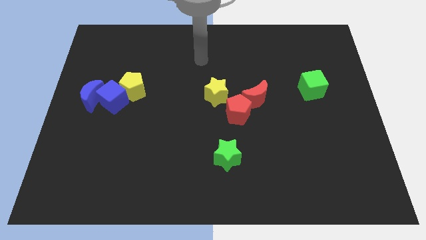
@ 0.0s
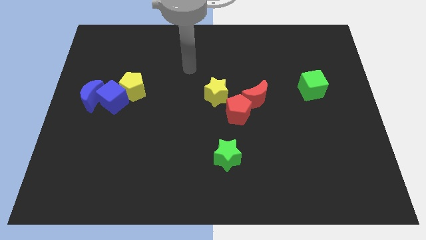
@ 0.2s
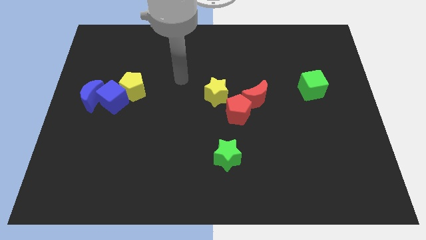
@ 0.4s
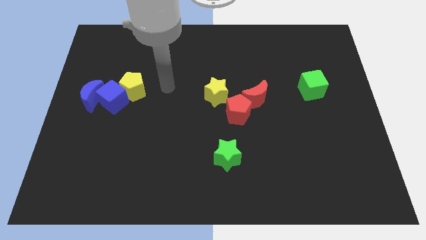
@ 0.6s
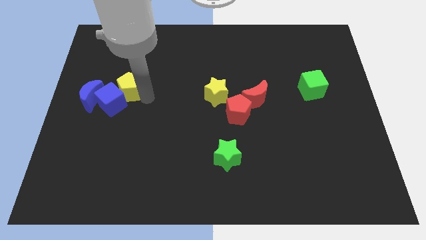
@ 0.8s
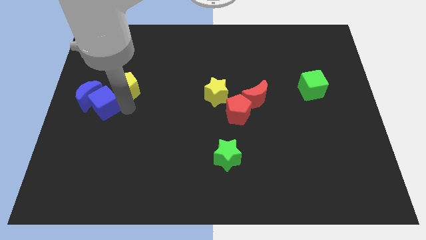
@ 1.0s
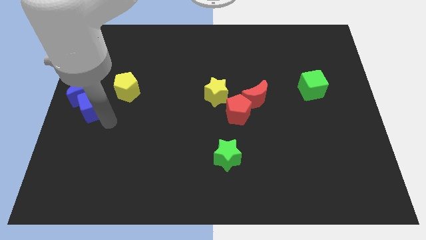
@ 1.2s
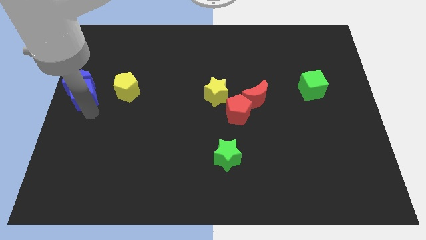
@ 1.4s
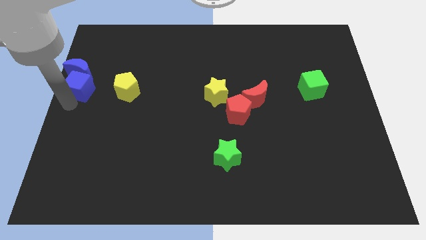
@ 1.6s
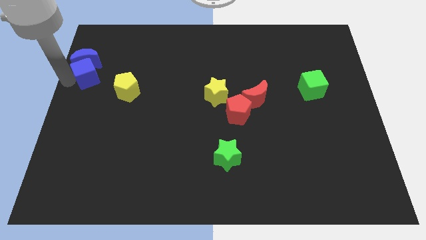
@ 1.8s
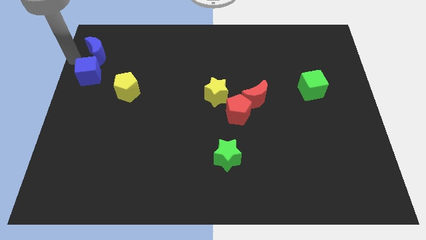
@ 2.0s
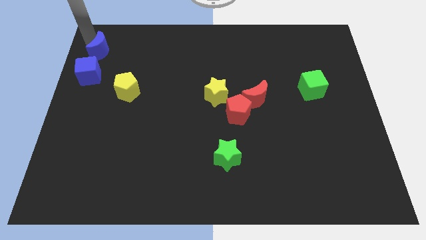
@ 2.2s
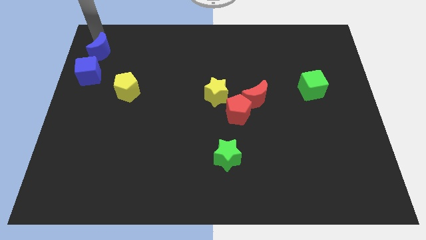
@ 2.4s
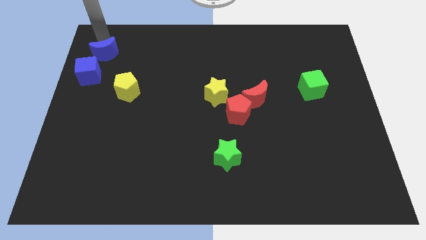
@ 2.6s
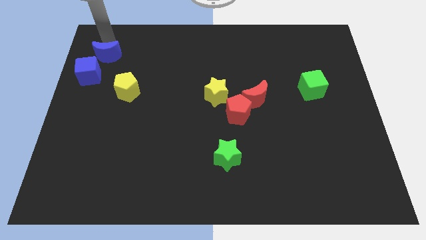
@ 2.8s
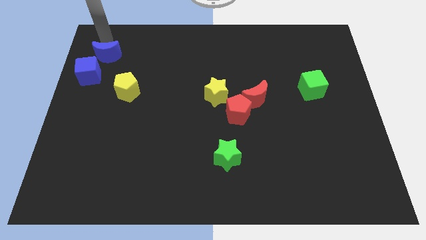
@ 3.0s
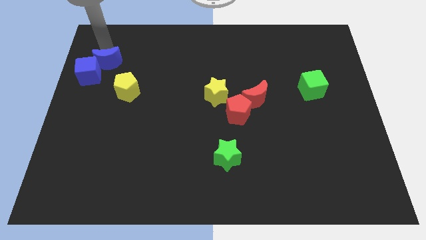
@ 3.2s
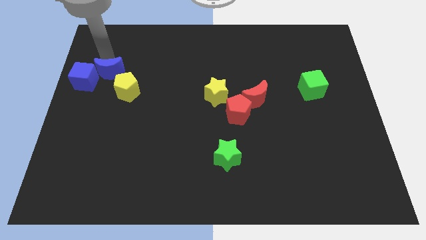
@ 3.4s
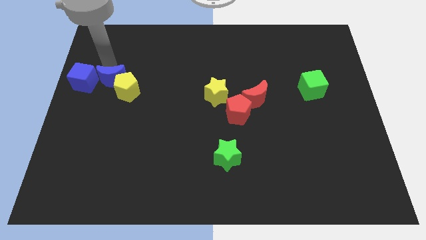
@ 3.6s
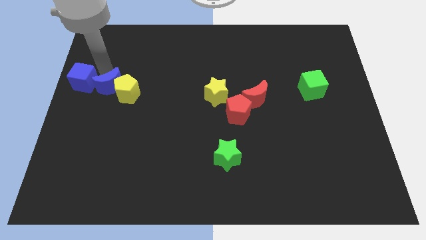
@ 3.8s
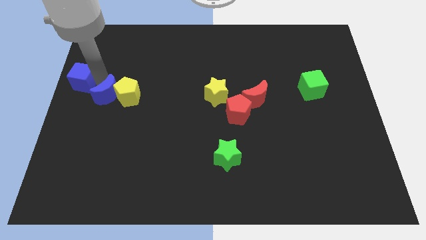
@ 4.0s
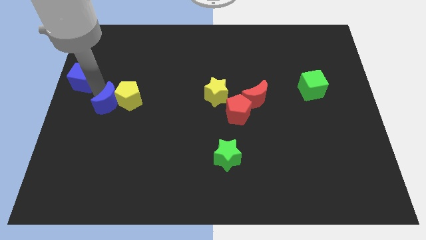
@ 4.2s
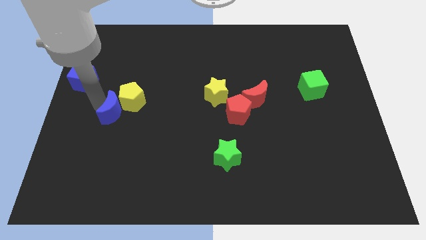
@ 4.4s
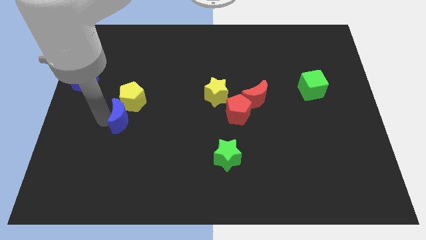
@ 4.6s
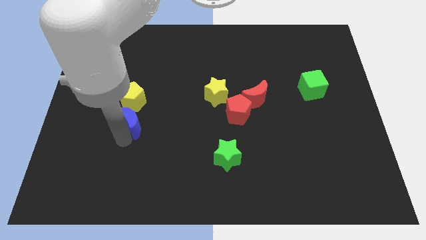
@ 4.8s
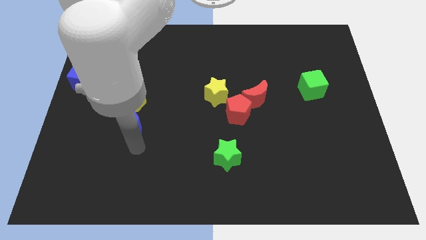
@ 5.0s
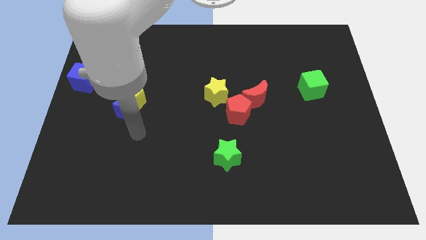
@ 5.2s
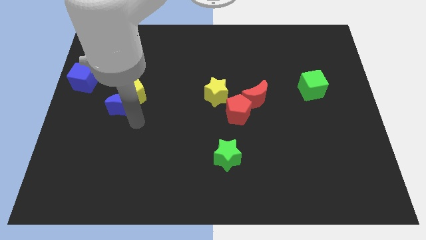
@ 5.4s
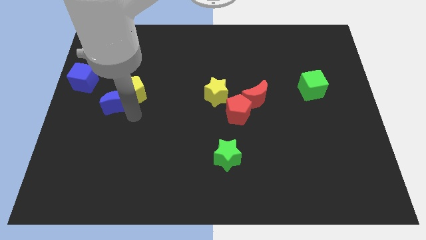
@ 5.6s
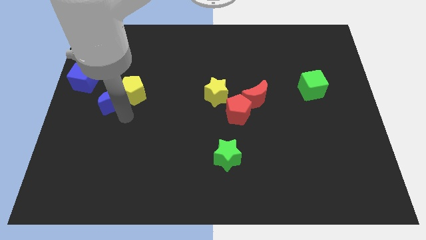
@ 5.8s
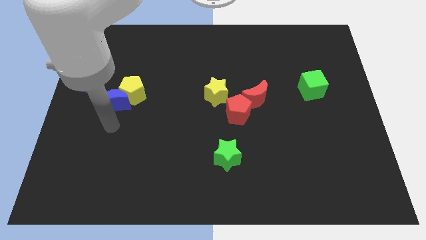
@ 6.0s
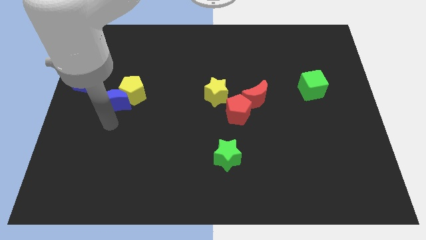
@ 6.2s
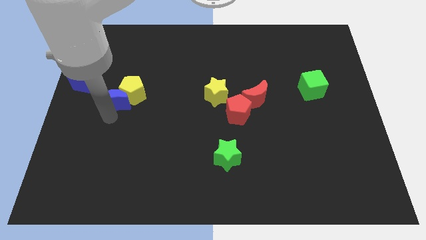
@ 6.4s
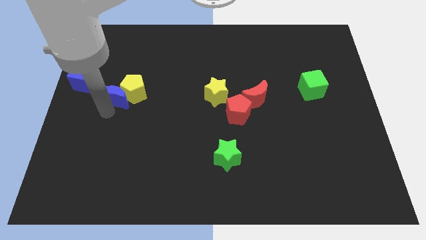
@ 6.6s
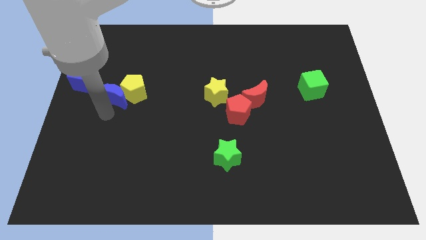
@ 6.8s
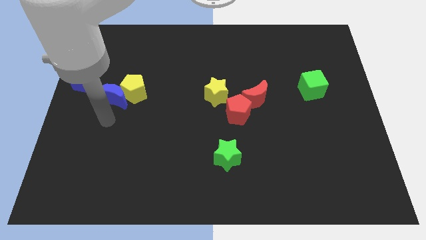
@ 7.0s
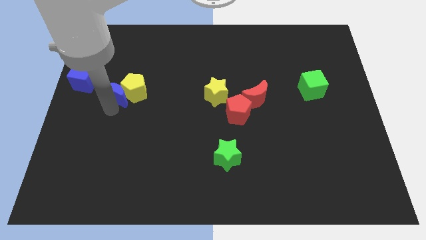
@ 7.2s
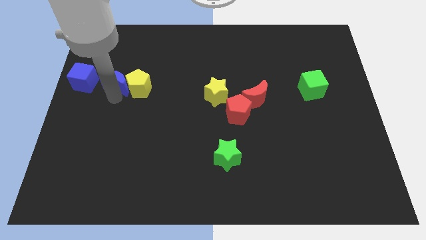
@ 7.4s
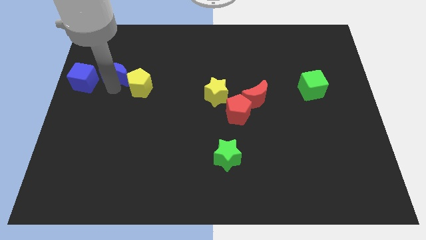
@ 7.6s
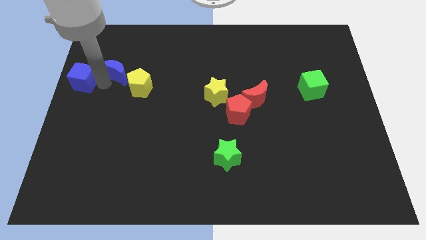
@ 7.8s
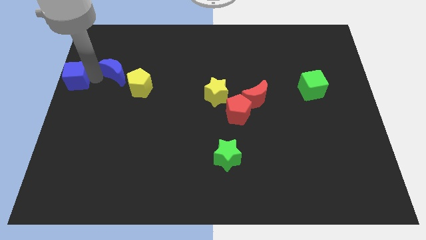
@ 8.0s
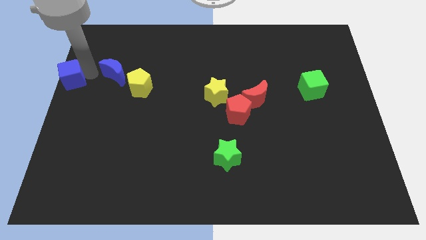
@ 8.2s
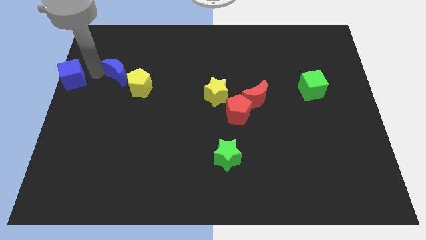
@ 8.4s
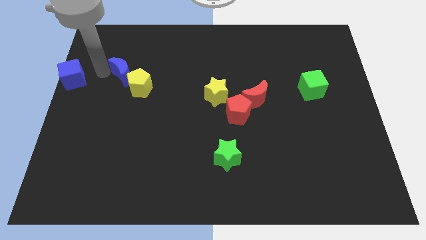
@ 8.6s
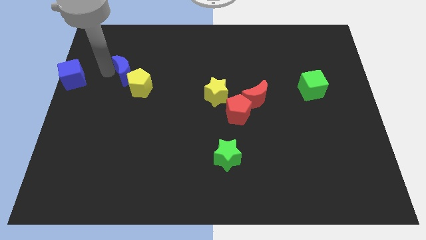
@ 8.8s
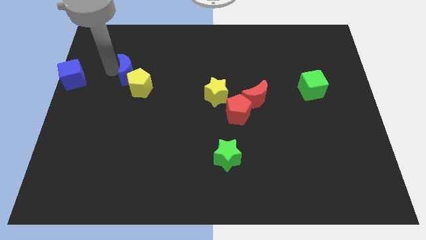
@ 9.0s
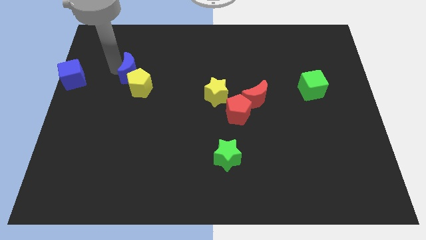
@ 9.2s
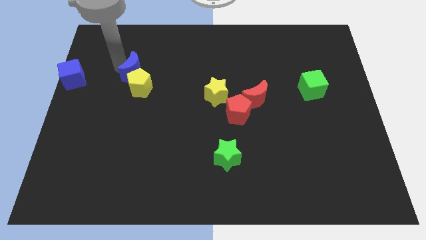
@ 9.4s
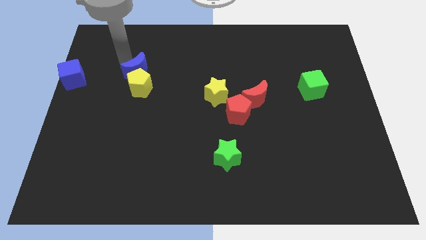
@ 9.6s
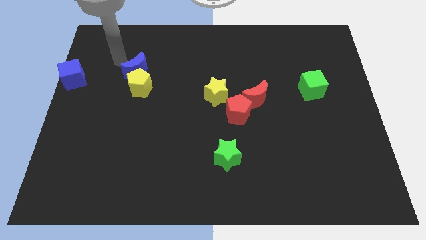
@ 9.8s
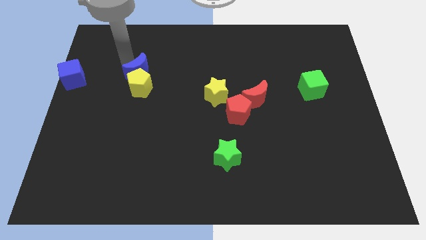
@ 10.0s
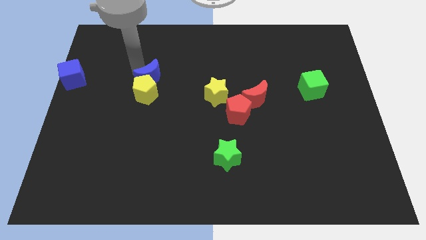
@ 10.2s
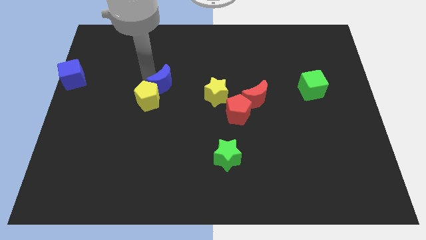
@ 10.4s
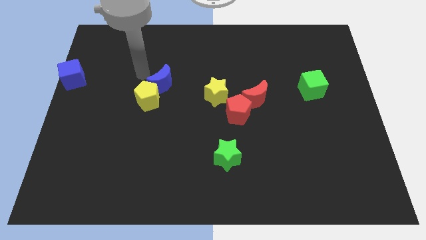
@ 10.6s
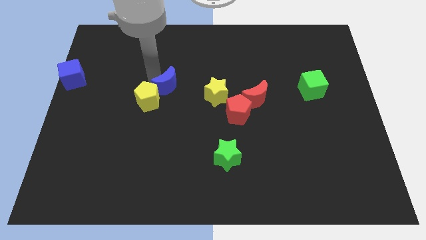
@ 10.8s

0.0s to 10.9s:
put the blue moon just right of the yellow pentagon

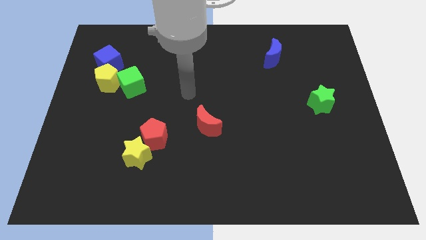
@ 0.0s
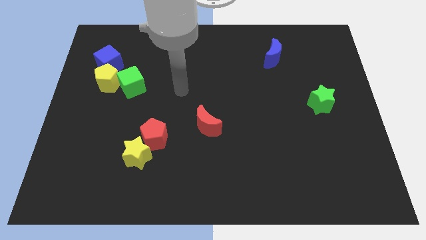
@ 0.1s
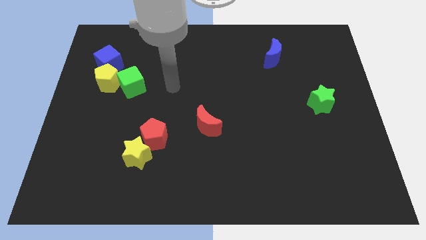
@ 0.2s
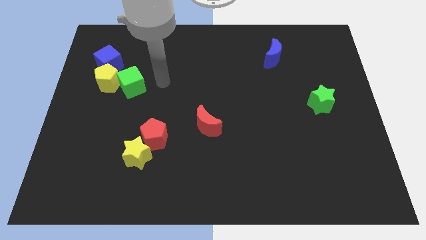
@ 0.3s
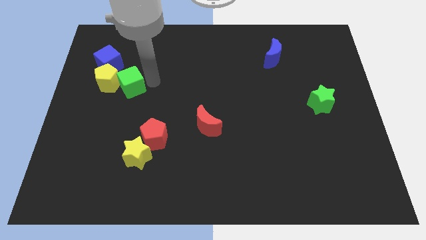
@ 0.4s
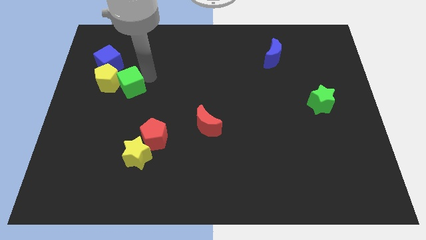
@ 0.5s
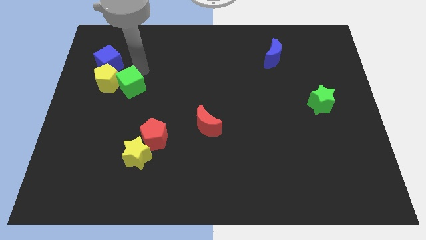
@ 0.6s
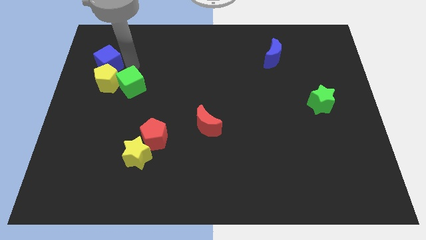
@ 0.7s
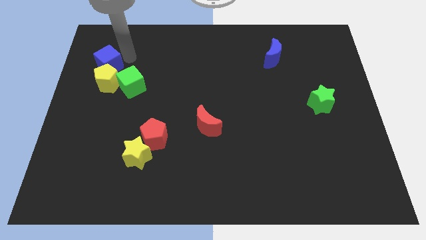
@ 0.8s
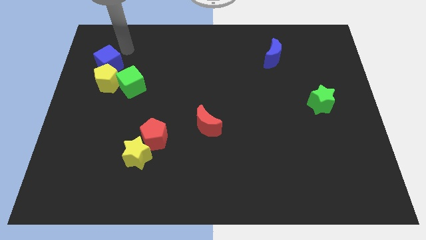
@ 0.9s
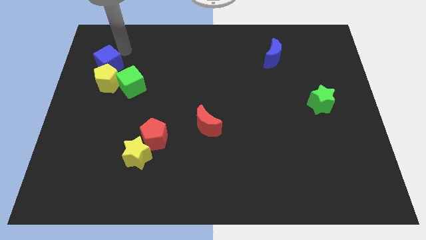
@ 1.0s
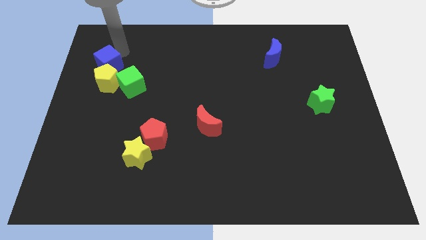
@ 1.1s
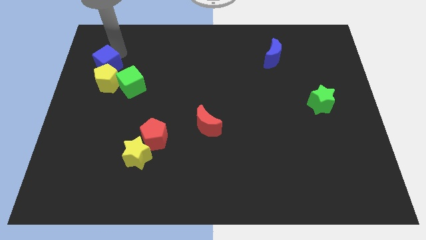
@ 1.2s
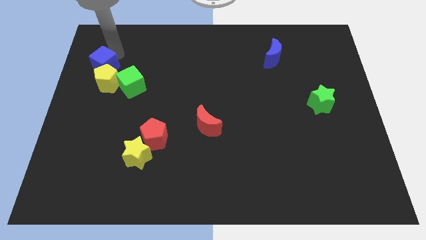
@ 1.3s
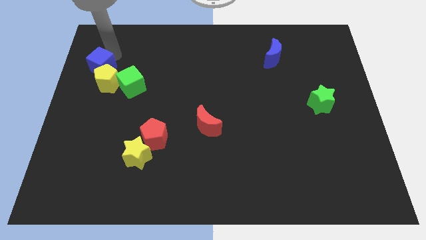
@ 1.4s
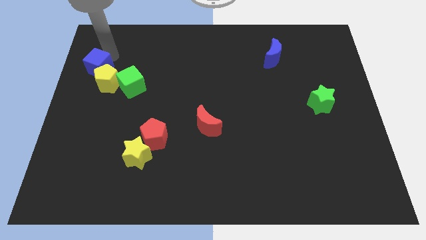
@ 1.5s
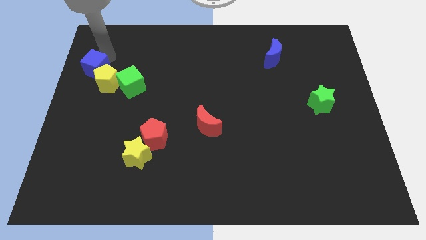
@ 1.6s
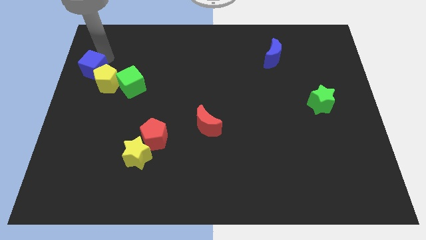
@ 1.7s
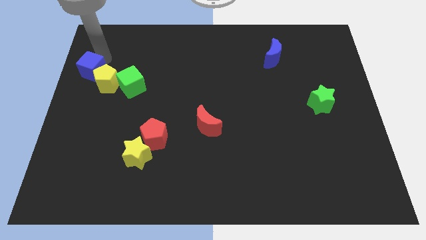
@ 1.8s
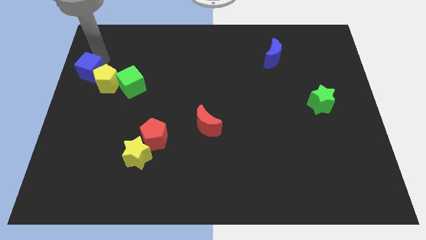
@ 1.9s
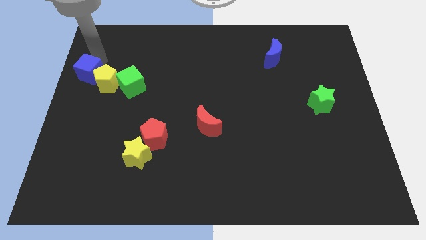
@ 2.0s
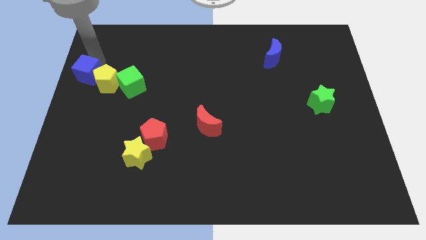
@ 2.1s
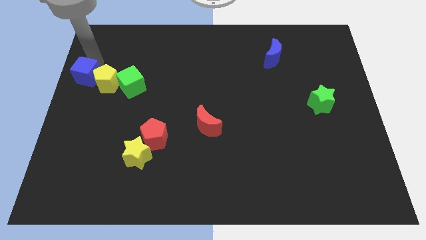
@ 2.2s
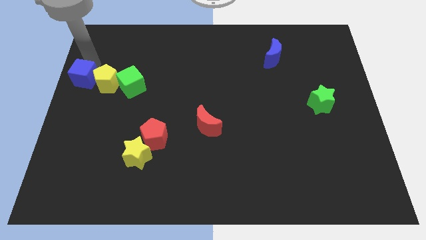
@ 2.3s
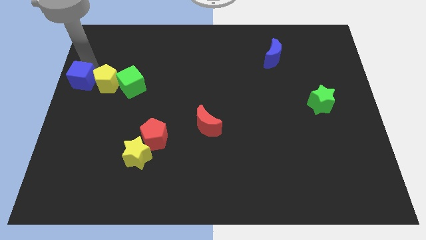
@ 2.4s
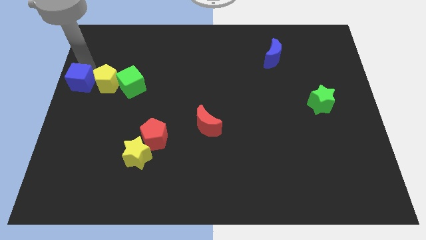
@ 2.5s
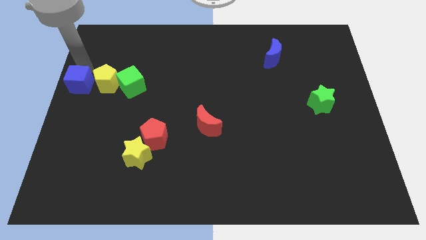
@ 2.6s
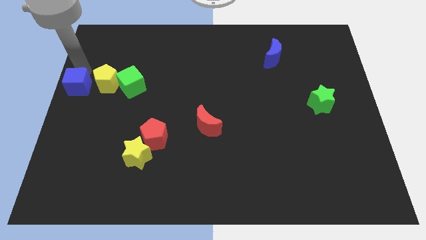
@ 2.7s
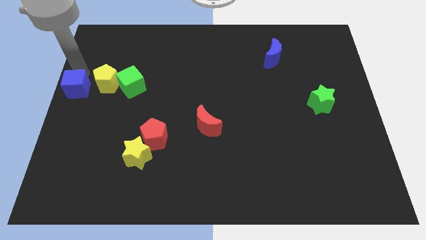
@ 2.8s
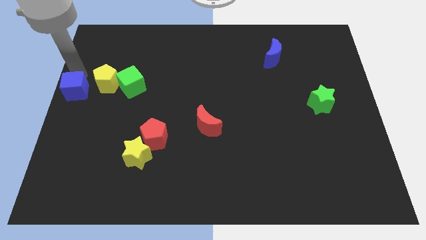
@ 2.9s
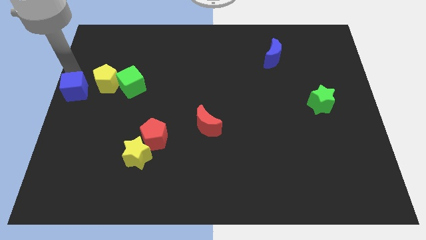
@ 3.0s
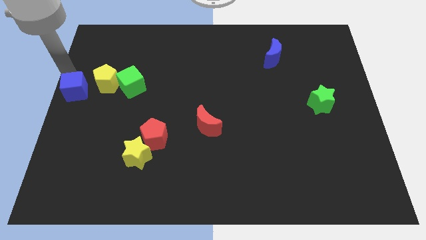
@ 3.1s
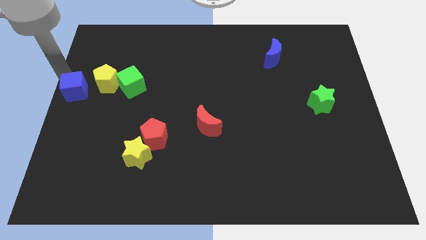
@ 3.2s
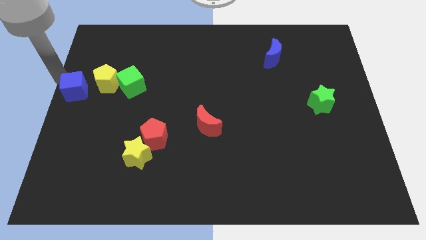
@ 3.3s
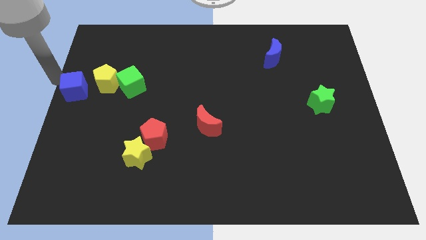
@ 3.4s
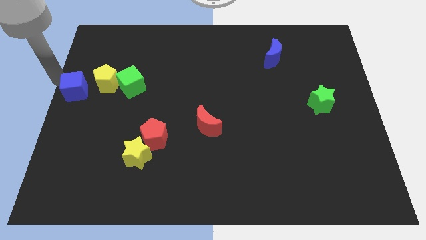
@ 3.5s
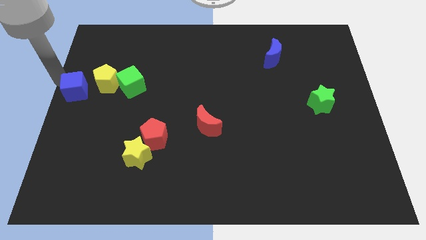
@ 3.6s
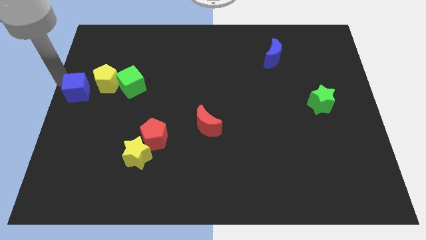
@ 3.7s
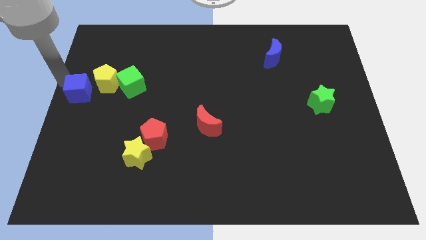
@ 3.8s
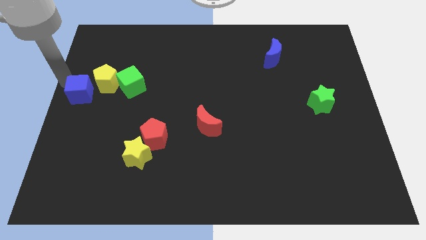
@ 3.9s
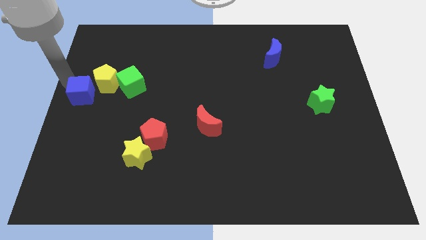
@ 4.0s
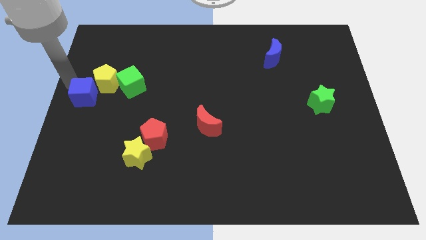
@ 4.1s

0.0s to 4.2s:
slide the blue cube to the bottom of the yellow pentagon
